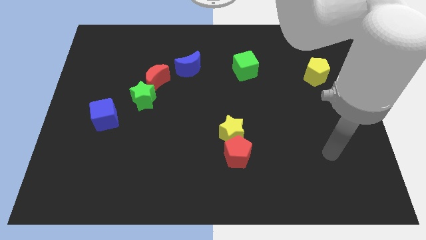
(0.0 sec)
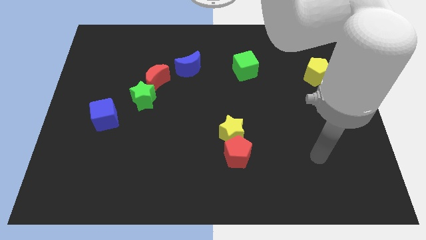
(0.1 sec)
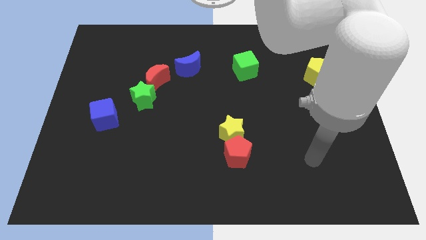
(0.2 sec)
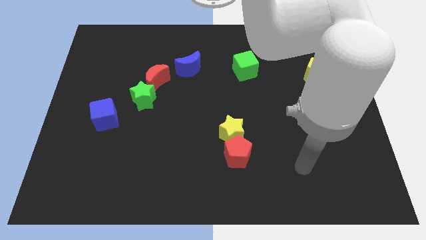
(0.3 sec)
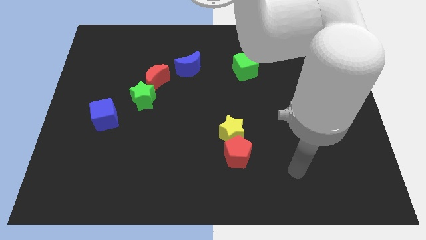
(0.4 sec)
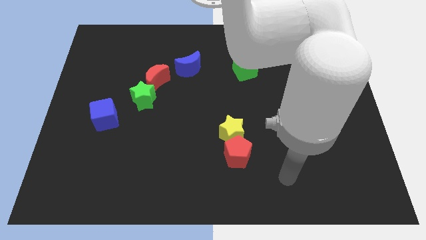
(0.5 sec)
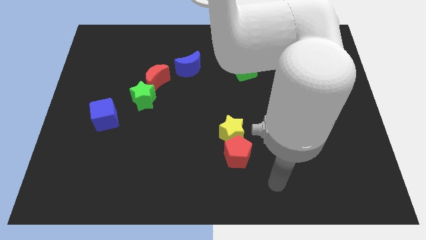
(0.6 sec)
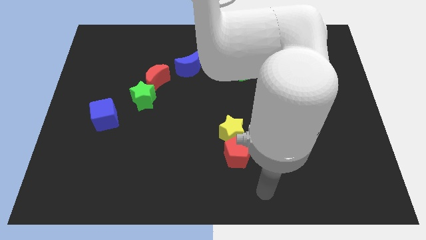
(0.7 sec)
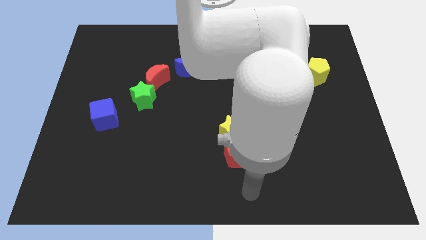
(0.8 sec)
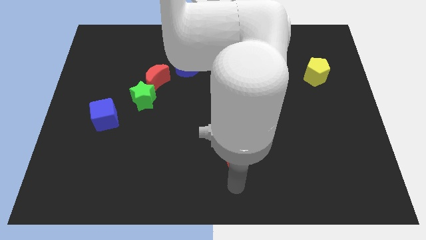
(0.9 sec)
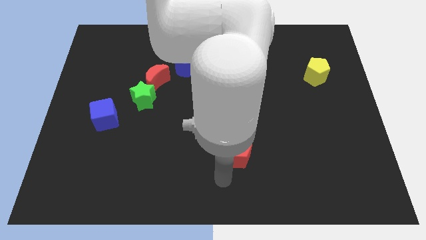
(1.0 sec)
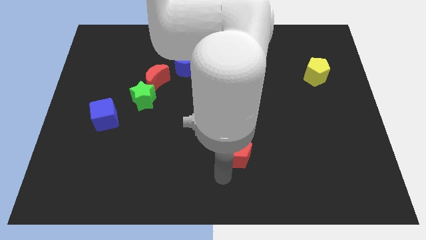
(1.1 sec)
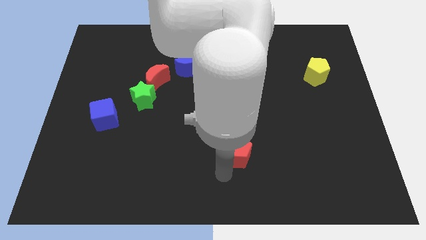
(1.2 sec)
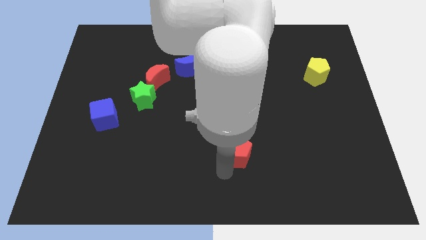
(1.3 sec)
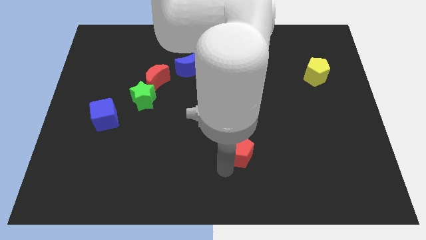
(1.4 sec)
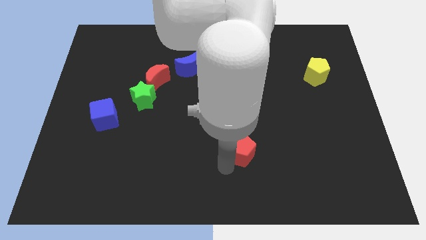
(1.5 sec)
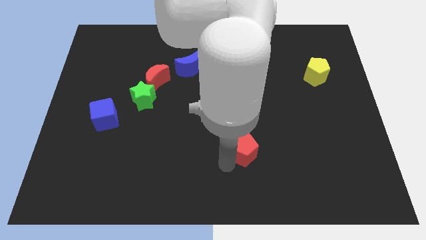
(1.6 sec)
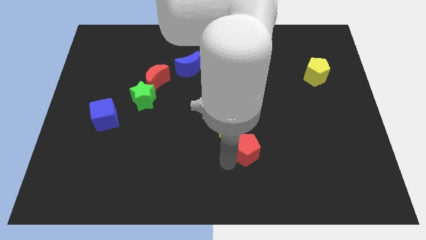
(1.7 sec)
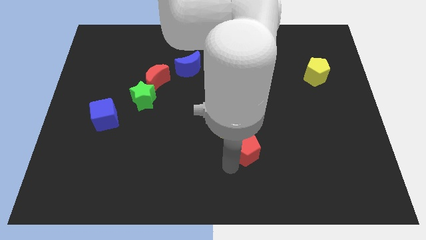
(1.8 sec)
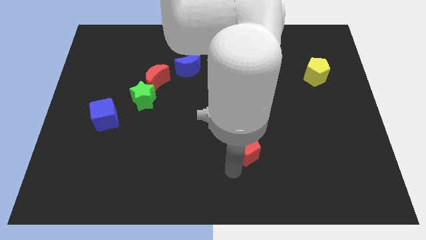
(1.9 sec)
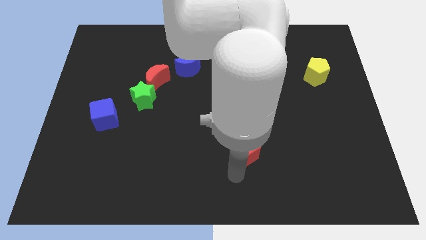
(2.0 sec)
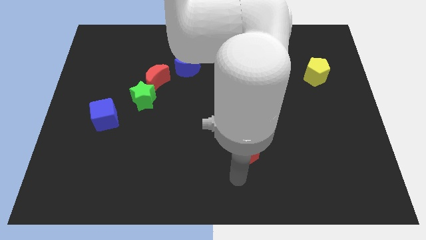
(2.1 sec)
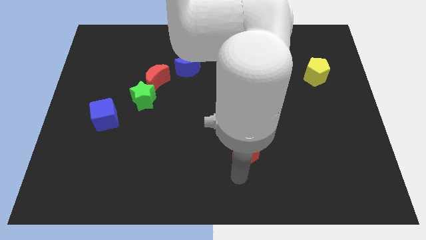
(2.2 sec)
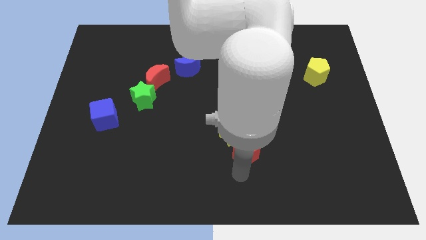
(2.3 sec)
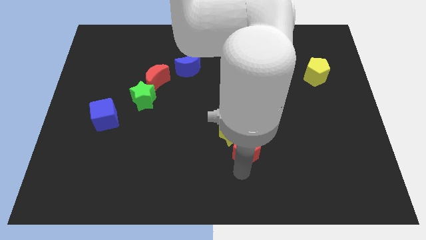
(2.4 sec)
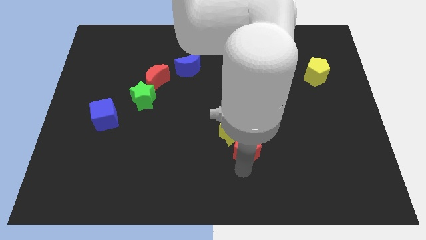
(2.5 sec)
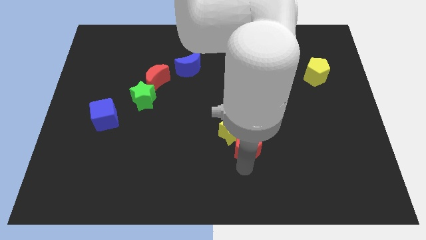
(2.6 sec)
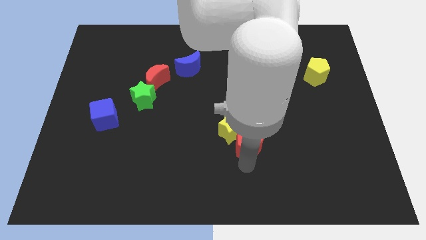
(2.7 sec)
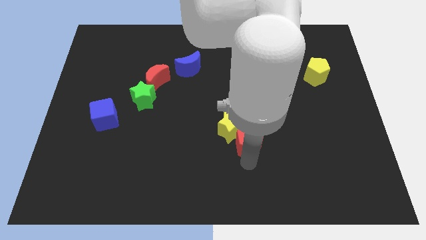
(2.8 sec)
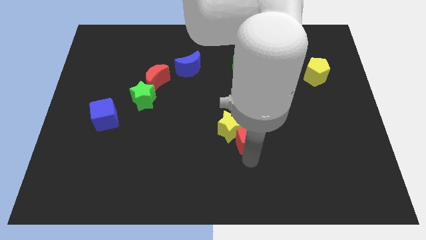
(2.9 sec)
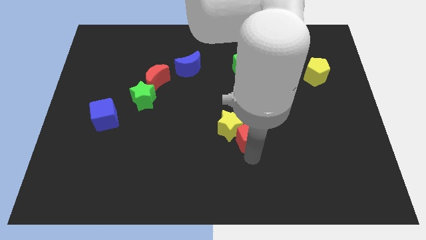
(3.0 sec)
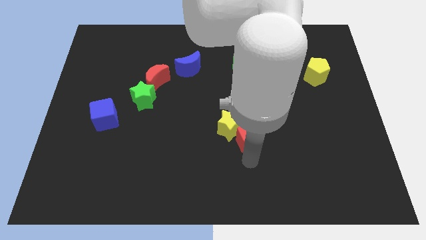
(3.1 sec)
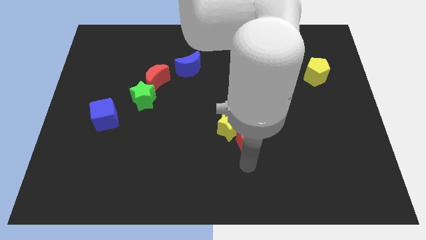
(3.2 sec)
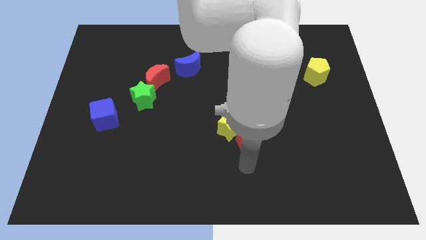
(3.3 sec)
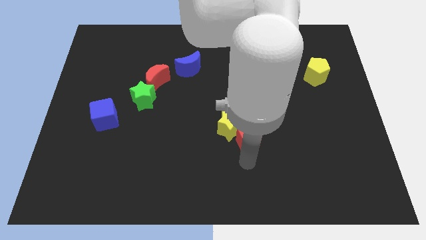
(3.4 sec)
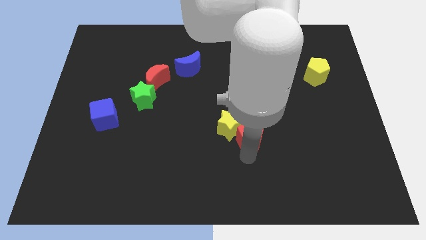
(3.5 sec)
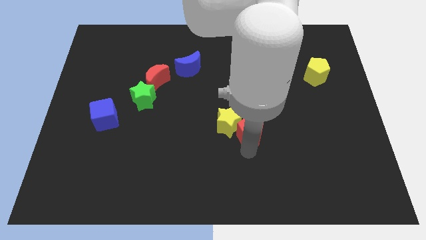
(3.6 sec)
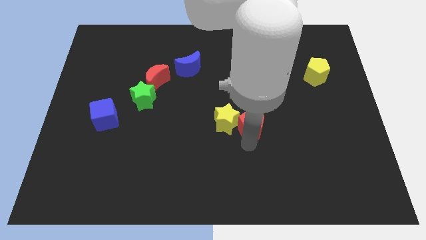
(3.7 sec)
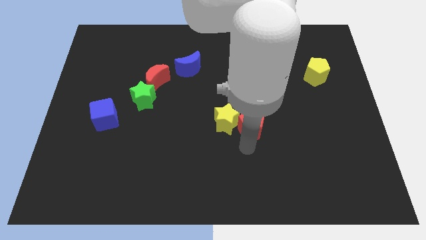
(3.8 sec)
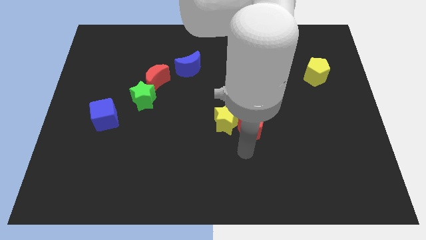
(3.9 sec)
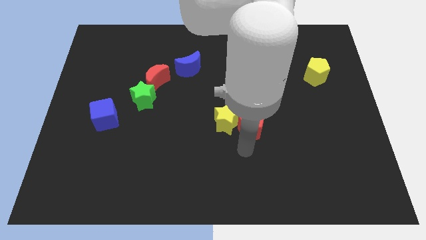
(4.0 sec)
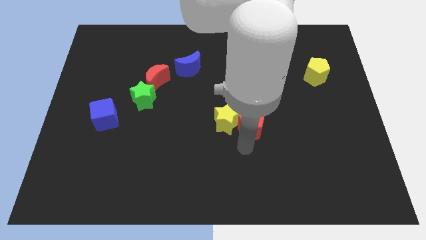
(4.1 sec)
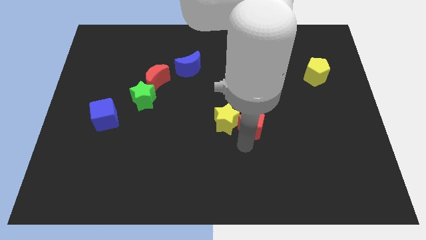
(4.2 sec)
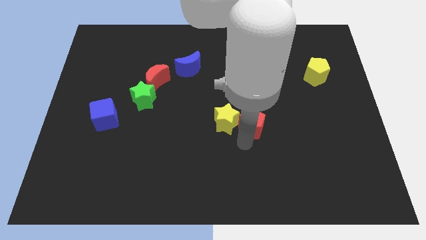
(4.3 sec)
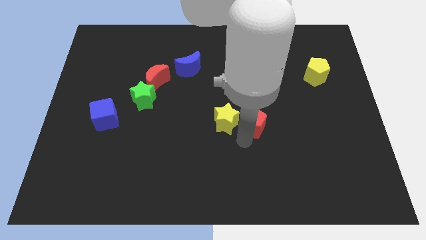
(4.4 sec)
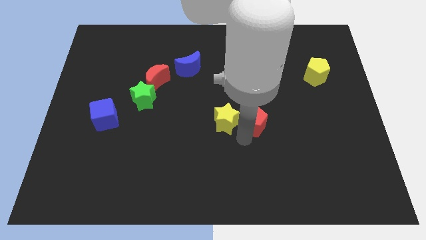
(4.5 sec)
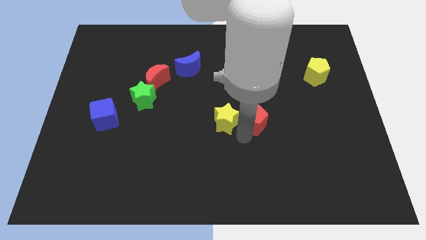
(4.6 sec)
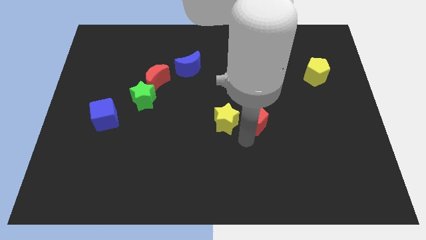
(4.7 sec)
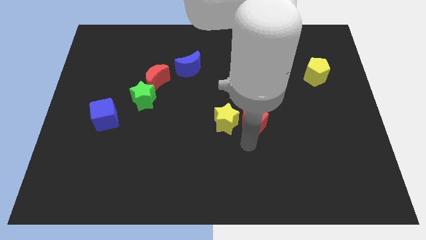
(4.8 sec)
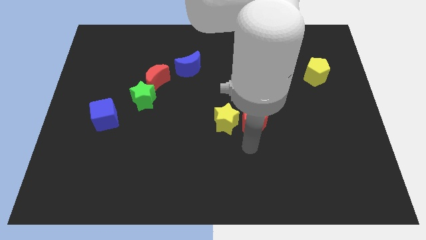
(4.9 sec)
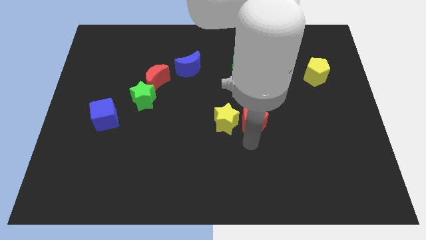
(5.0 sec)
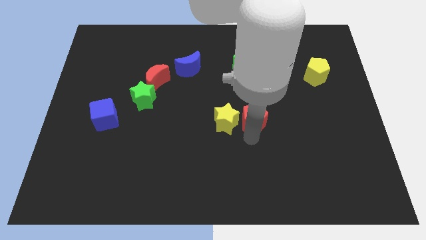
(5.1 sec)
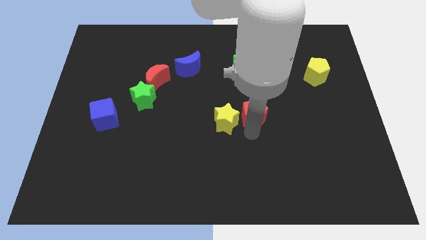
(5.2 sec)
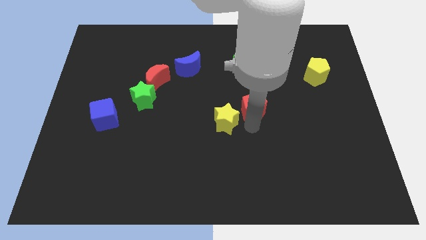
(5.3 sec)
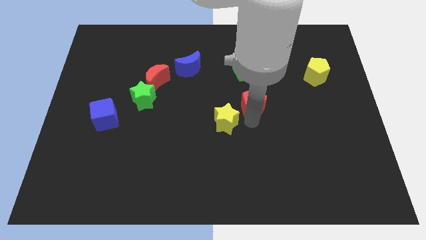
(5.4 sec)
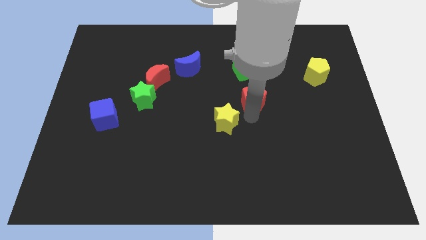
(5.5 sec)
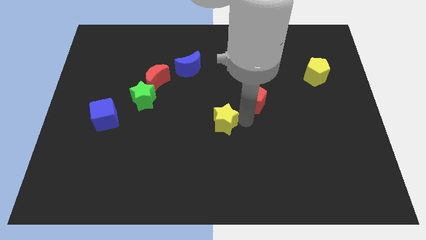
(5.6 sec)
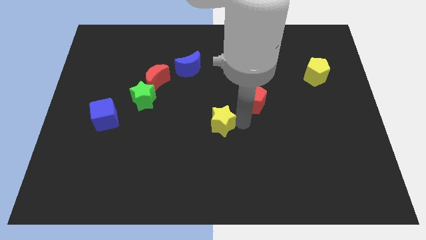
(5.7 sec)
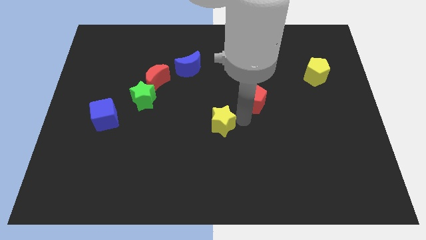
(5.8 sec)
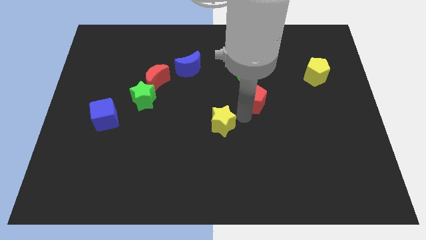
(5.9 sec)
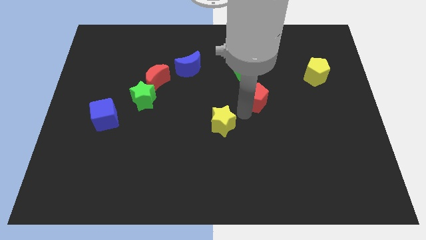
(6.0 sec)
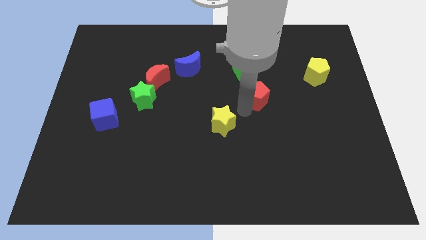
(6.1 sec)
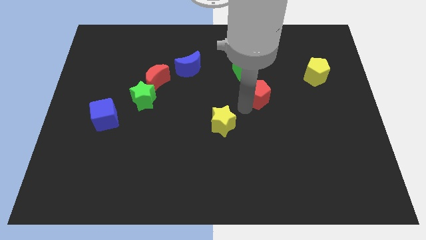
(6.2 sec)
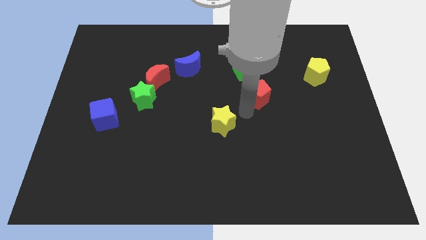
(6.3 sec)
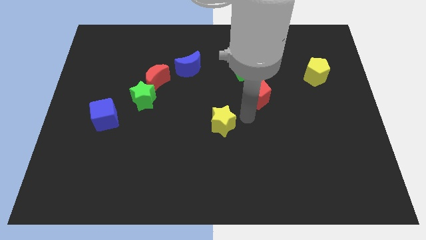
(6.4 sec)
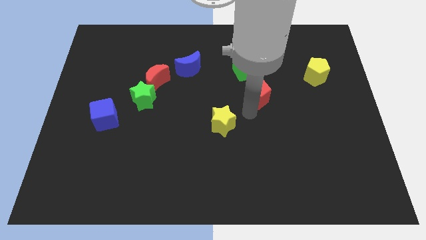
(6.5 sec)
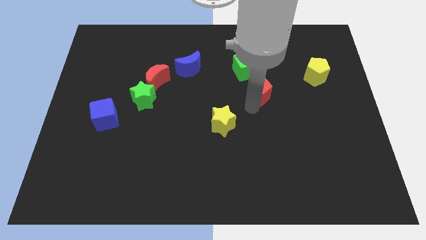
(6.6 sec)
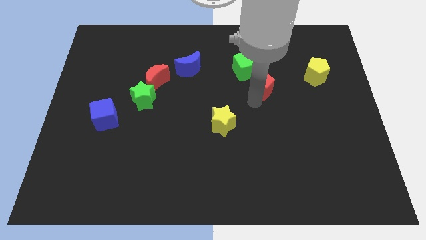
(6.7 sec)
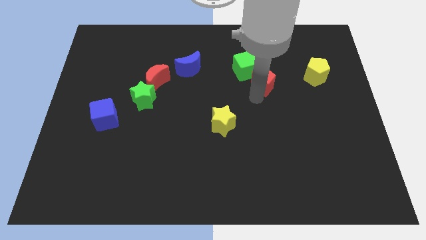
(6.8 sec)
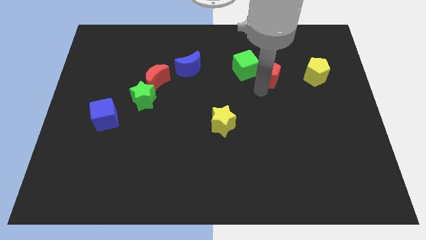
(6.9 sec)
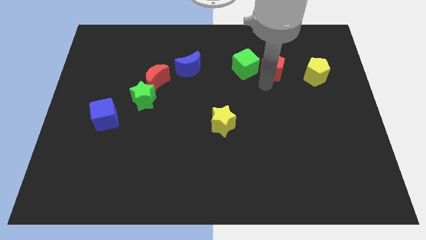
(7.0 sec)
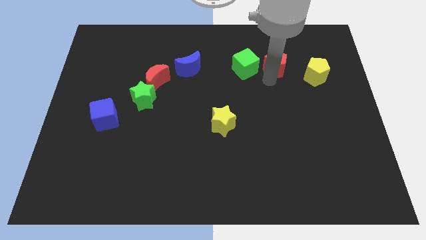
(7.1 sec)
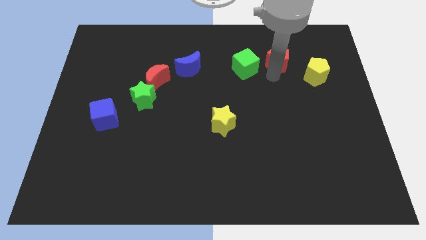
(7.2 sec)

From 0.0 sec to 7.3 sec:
push the red pentagon to the top right of the green cube

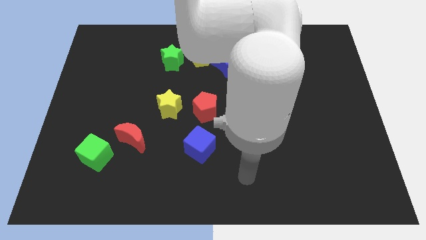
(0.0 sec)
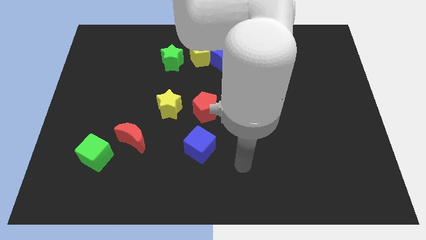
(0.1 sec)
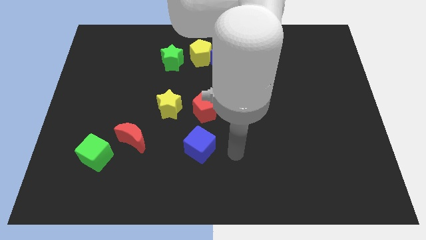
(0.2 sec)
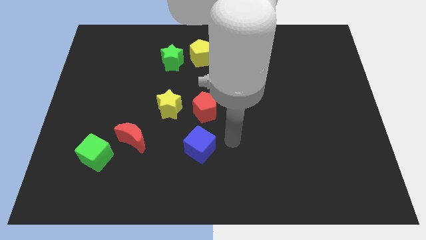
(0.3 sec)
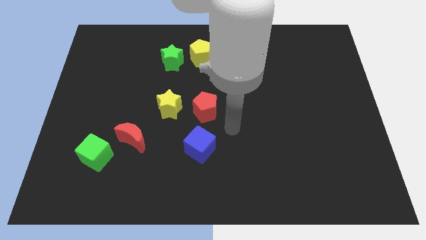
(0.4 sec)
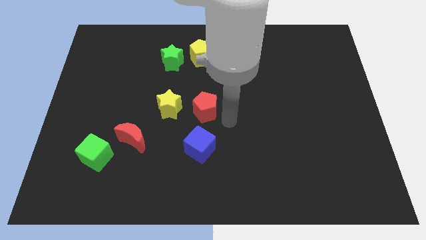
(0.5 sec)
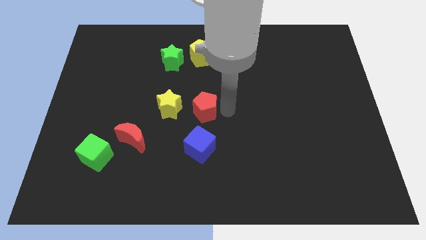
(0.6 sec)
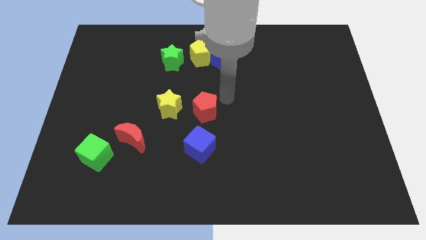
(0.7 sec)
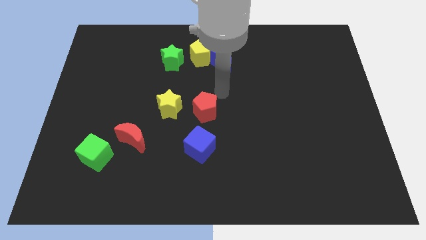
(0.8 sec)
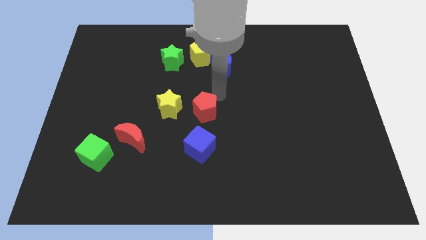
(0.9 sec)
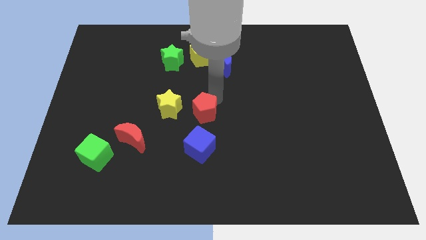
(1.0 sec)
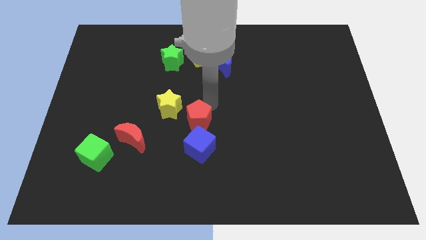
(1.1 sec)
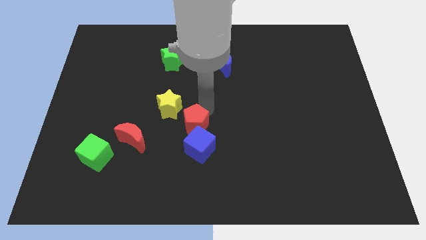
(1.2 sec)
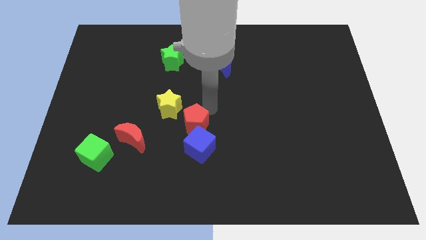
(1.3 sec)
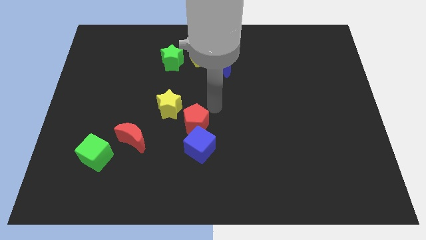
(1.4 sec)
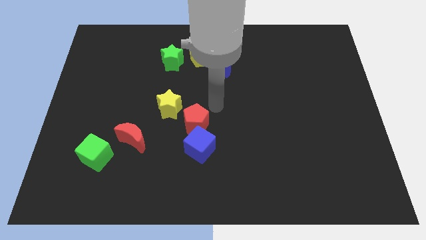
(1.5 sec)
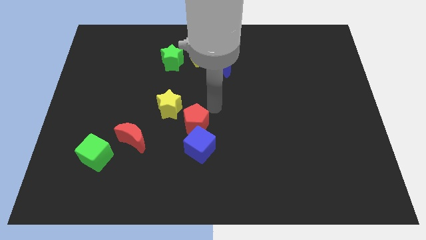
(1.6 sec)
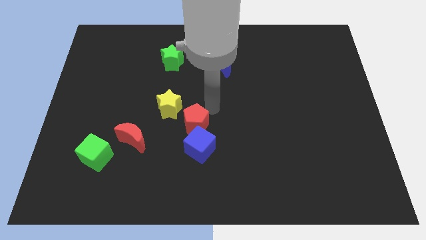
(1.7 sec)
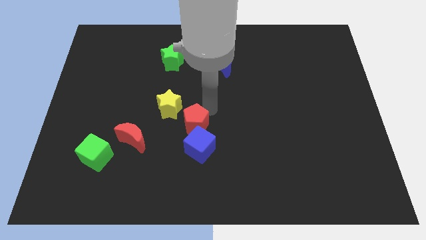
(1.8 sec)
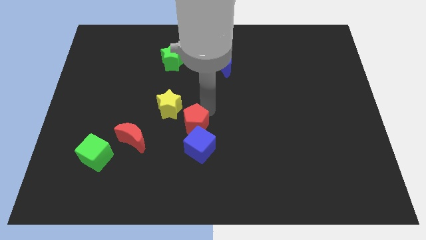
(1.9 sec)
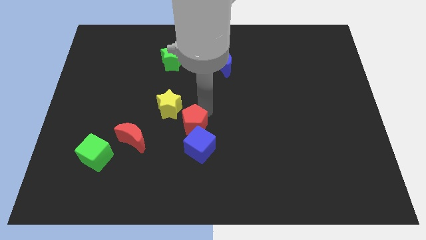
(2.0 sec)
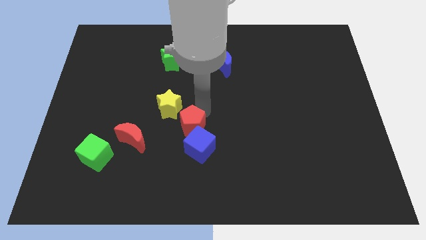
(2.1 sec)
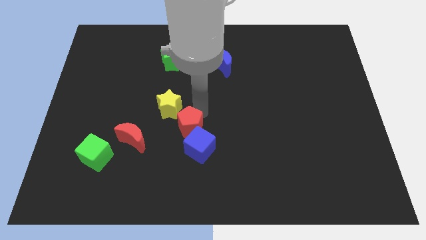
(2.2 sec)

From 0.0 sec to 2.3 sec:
push the red pentagon to the bottom side of the yellow star
